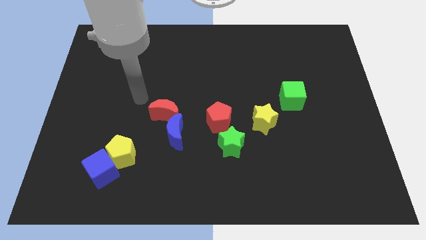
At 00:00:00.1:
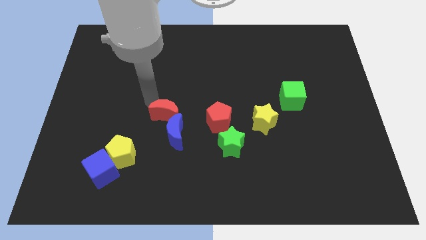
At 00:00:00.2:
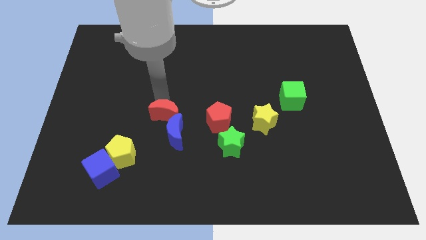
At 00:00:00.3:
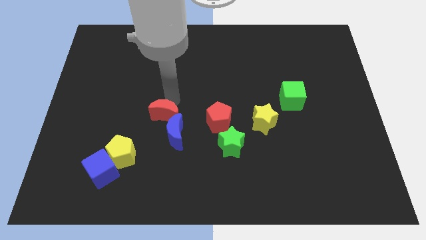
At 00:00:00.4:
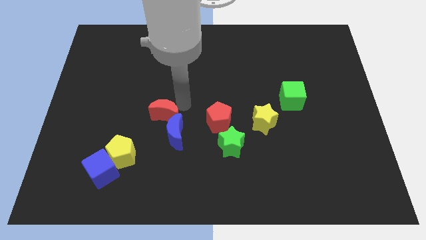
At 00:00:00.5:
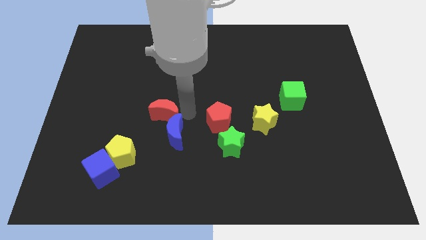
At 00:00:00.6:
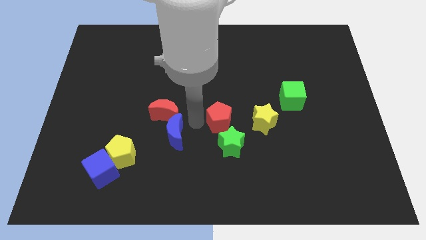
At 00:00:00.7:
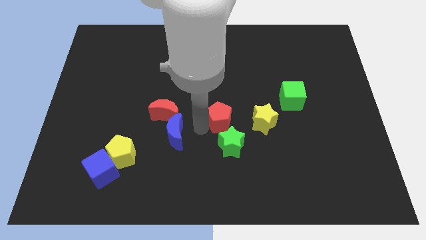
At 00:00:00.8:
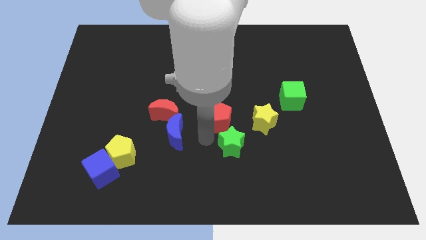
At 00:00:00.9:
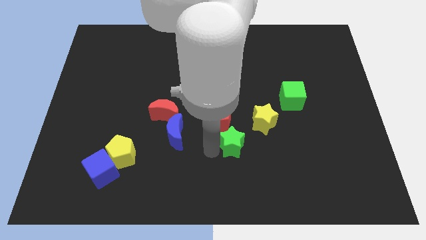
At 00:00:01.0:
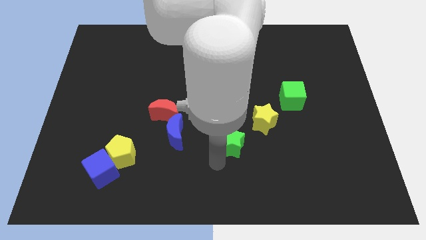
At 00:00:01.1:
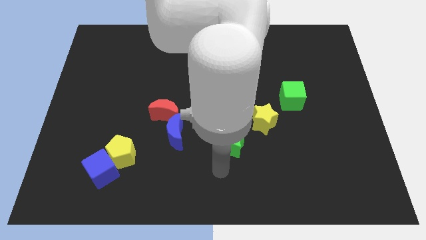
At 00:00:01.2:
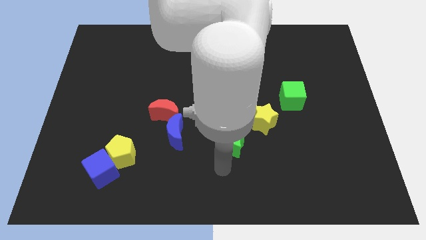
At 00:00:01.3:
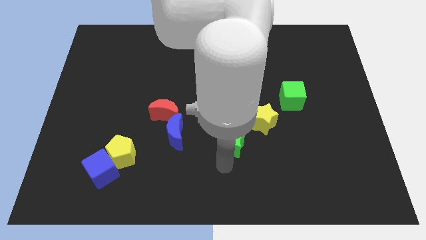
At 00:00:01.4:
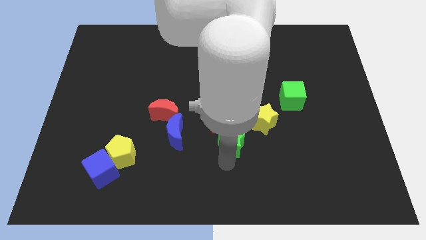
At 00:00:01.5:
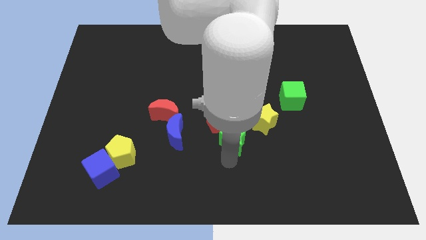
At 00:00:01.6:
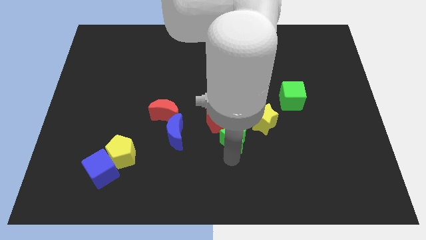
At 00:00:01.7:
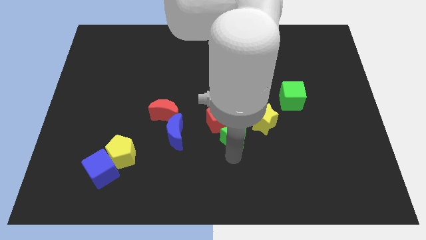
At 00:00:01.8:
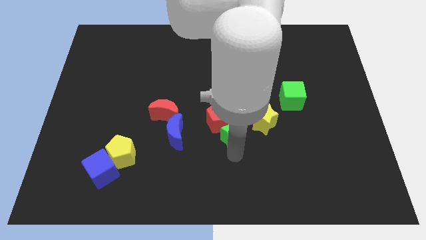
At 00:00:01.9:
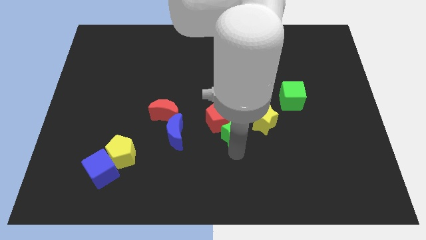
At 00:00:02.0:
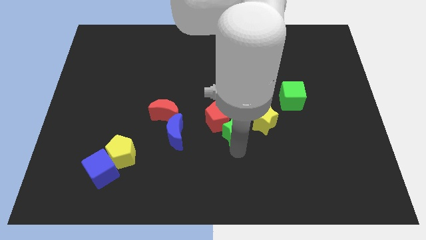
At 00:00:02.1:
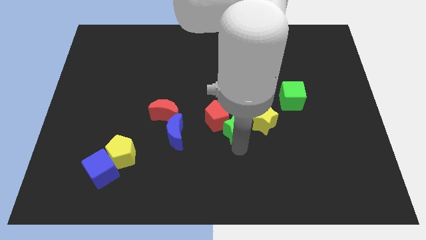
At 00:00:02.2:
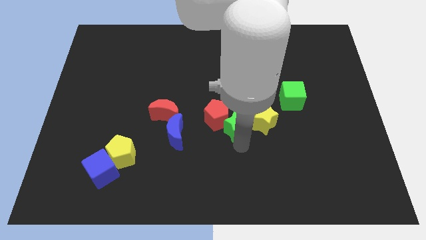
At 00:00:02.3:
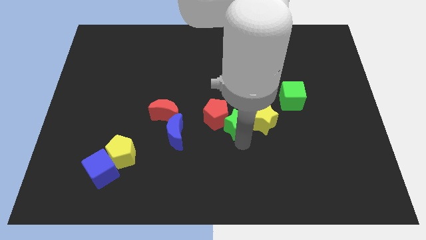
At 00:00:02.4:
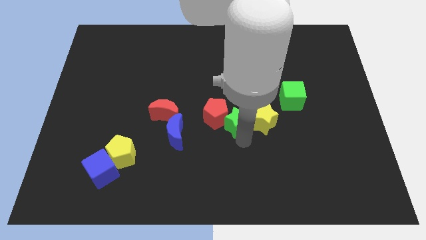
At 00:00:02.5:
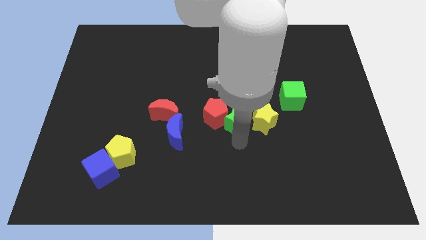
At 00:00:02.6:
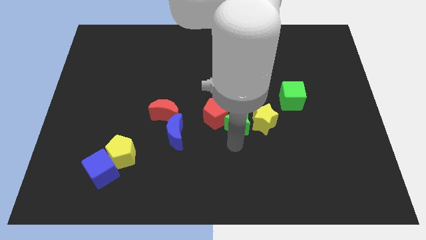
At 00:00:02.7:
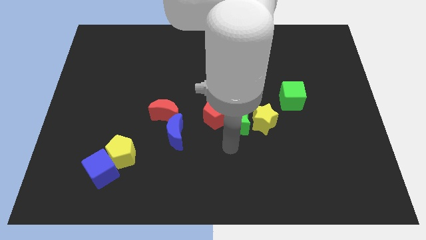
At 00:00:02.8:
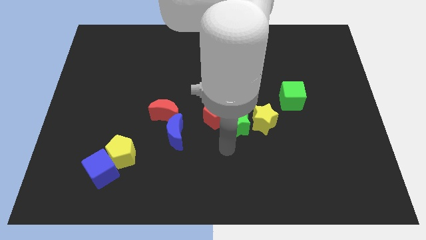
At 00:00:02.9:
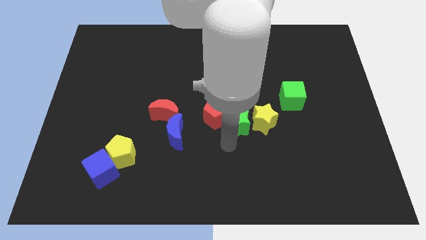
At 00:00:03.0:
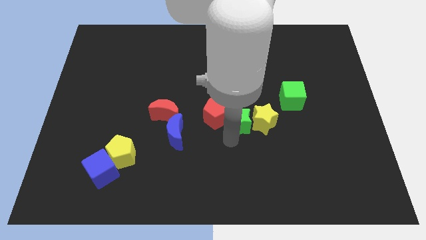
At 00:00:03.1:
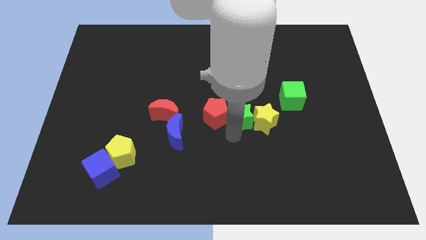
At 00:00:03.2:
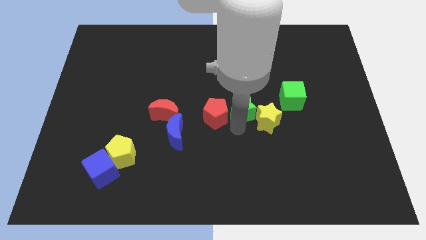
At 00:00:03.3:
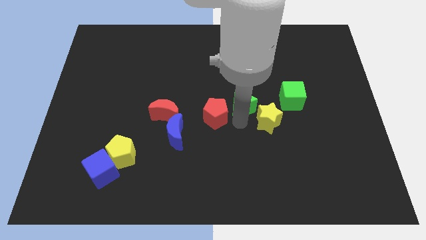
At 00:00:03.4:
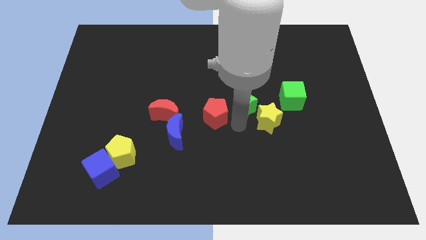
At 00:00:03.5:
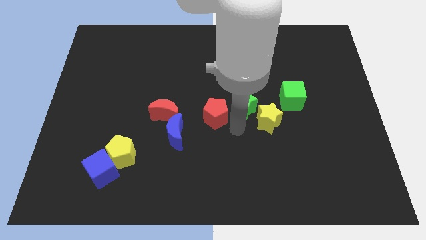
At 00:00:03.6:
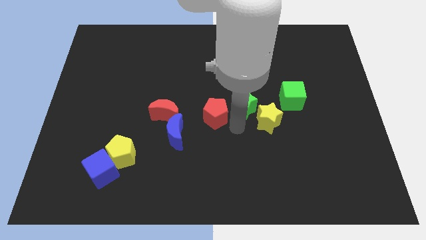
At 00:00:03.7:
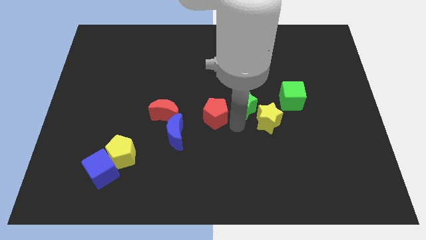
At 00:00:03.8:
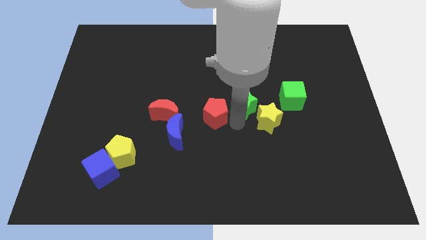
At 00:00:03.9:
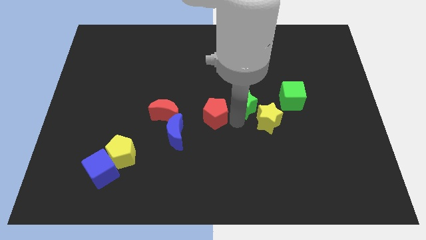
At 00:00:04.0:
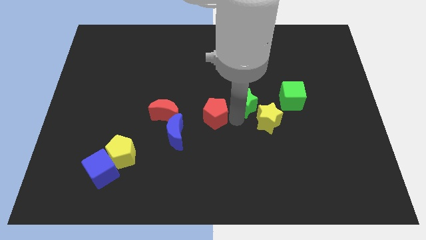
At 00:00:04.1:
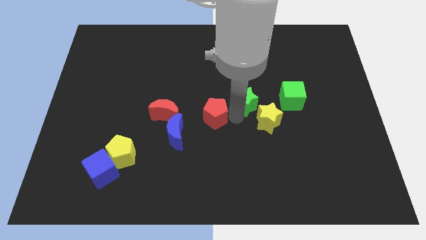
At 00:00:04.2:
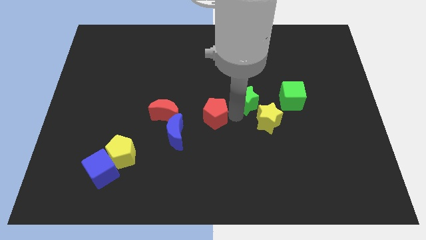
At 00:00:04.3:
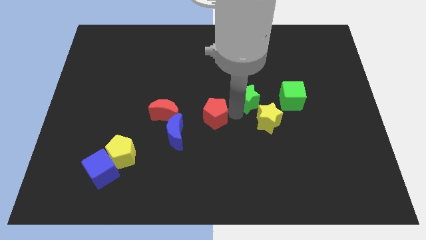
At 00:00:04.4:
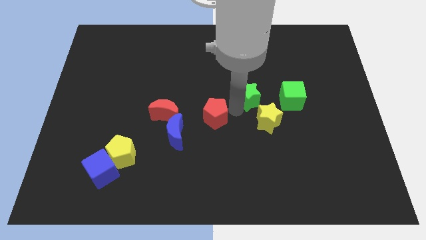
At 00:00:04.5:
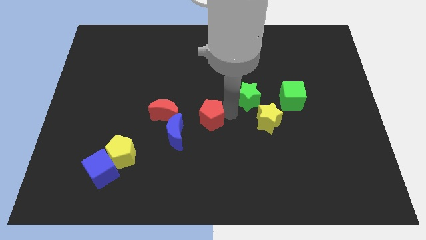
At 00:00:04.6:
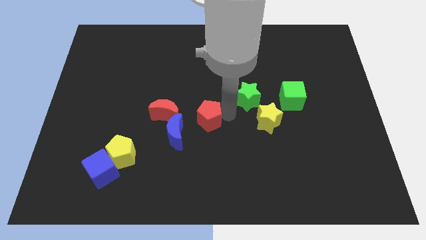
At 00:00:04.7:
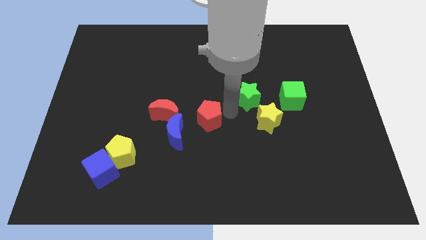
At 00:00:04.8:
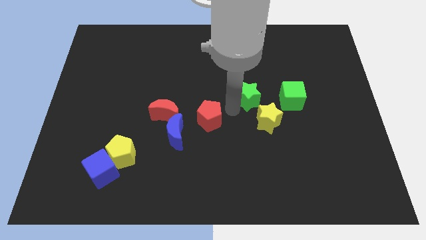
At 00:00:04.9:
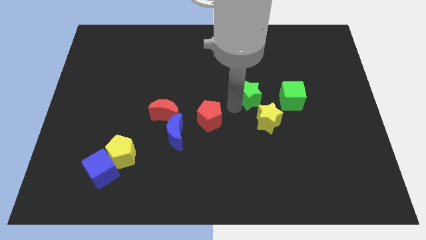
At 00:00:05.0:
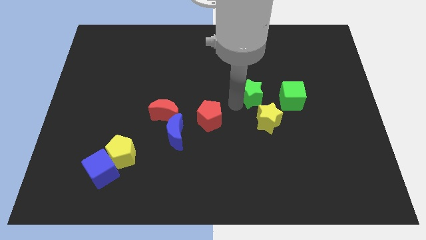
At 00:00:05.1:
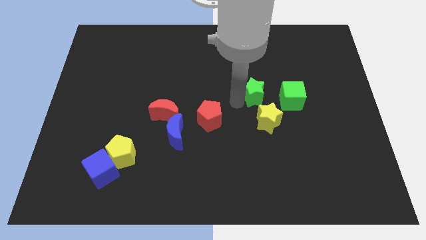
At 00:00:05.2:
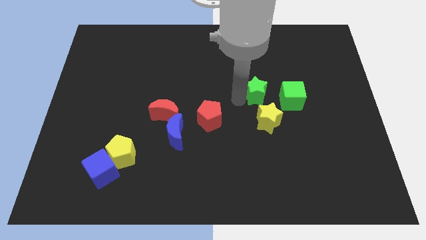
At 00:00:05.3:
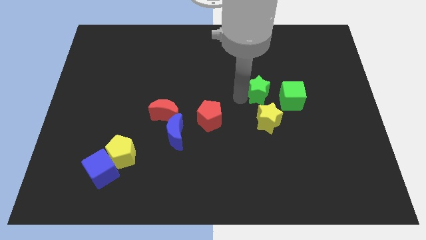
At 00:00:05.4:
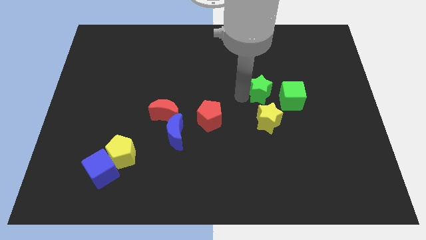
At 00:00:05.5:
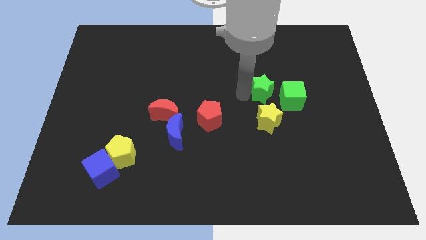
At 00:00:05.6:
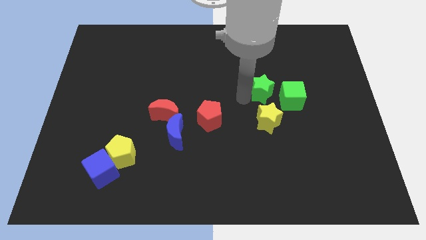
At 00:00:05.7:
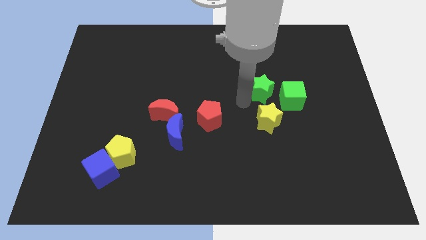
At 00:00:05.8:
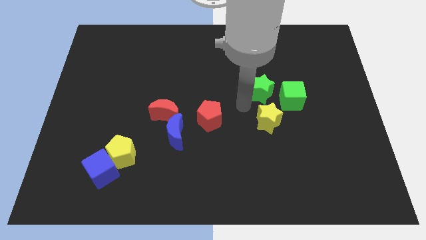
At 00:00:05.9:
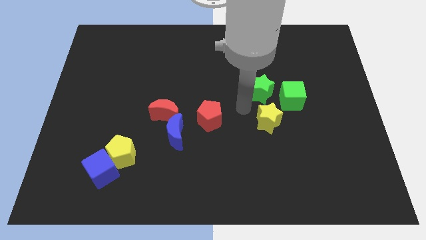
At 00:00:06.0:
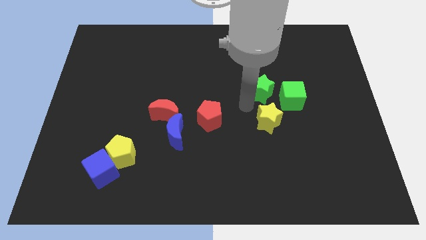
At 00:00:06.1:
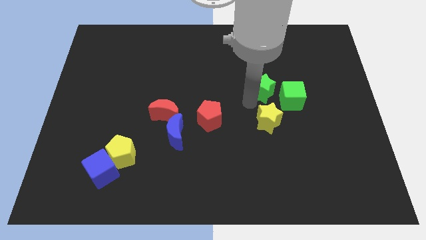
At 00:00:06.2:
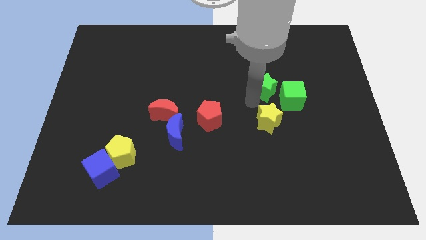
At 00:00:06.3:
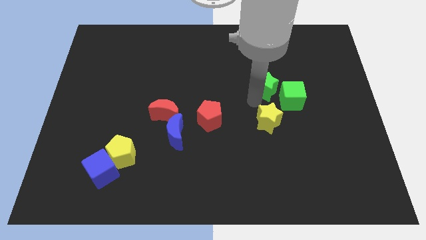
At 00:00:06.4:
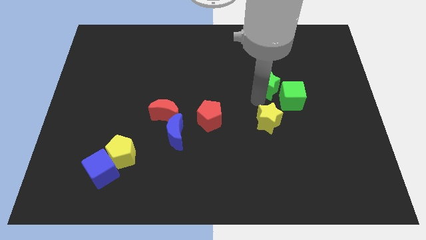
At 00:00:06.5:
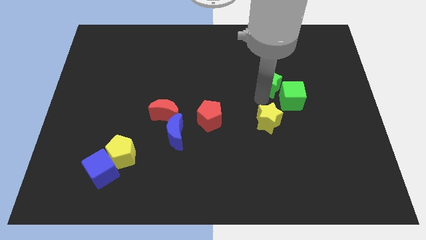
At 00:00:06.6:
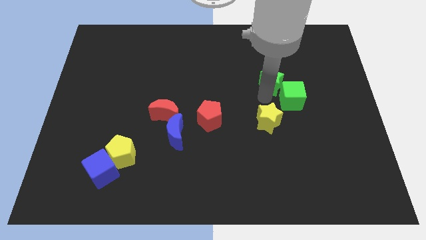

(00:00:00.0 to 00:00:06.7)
slide the green star to the top side of the green cube
